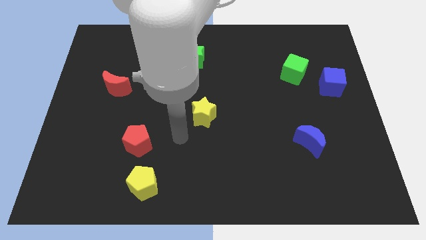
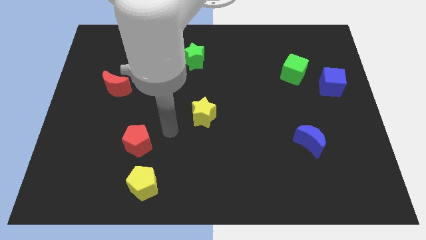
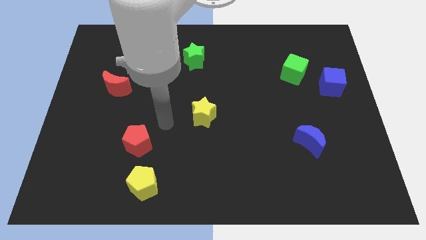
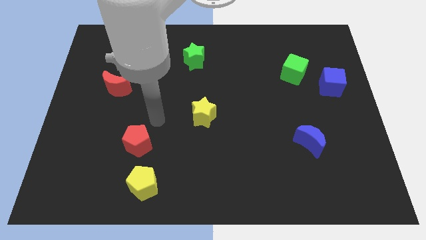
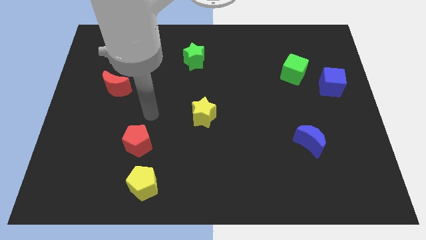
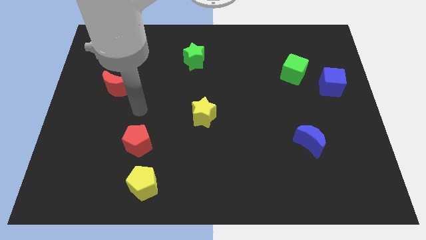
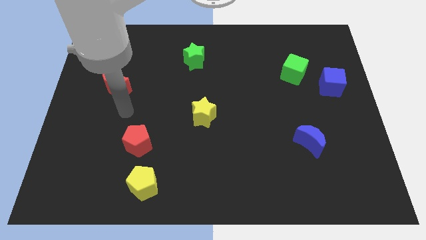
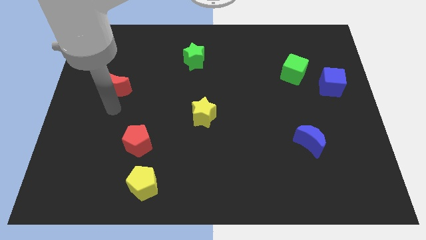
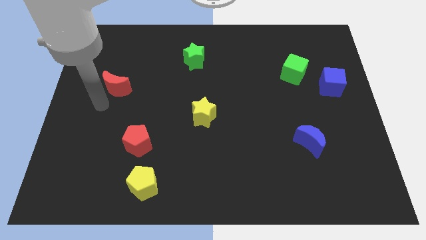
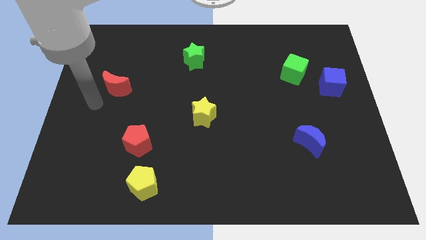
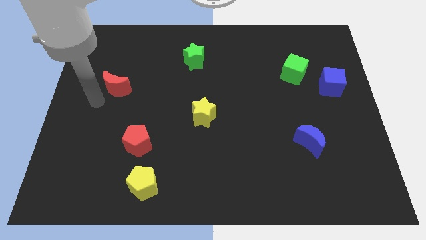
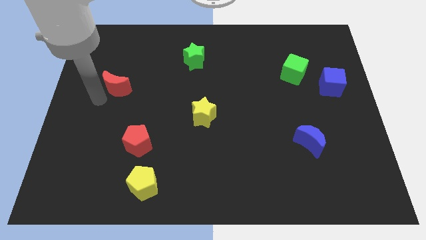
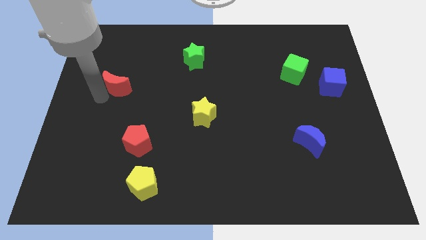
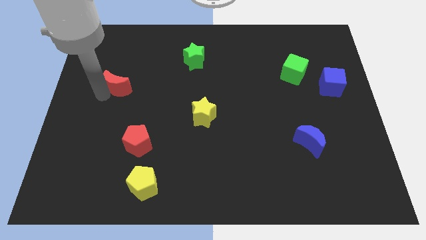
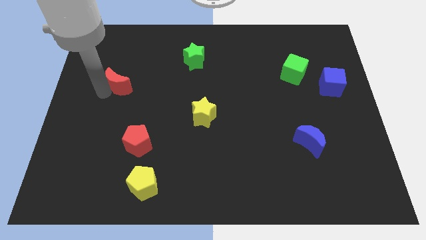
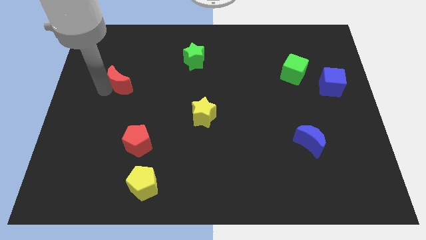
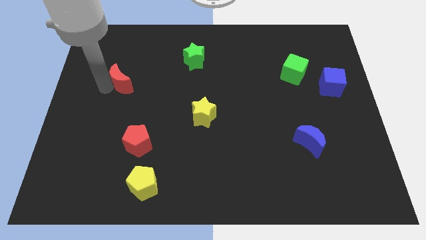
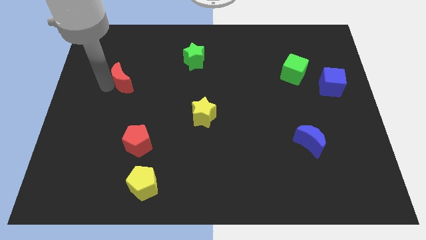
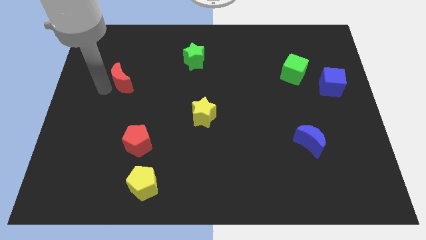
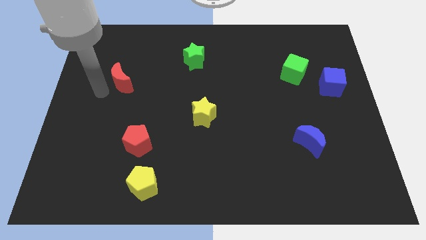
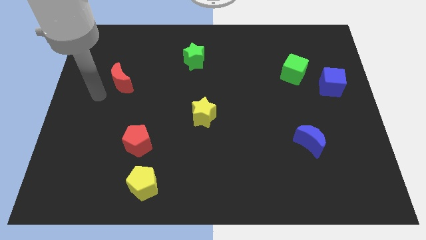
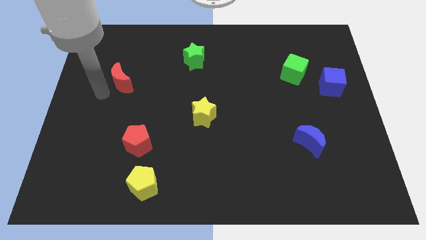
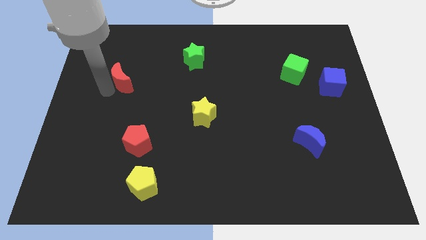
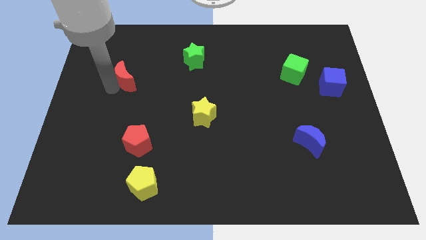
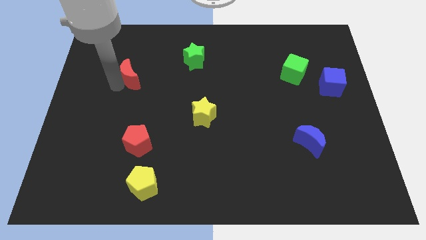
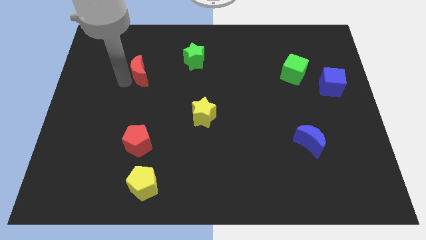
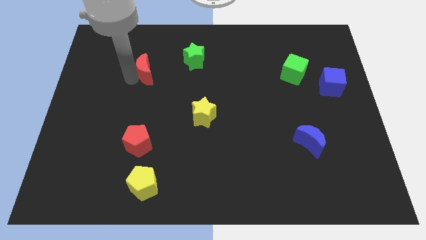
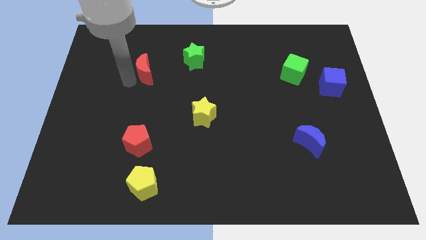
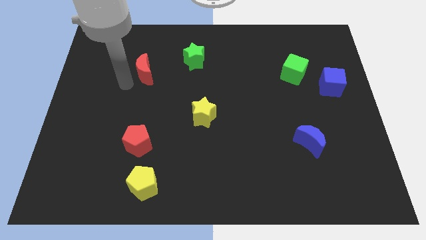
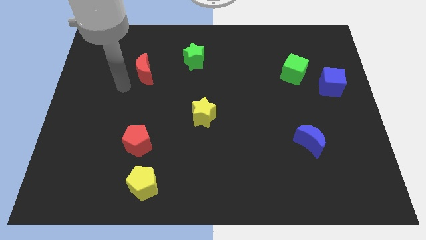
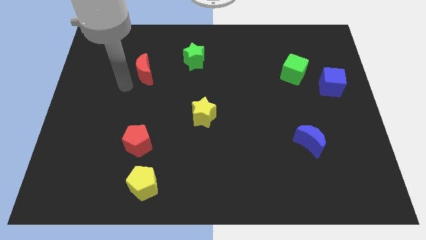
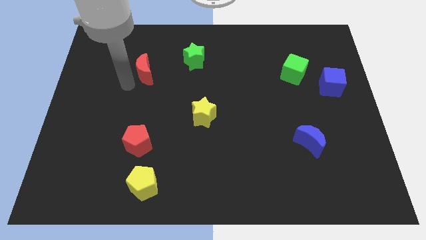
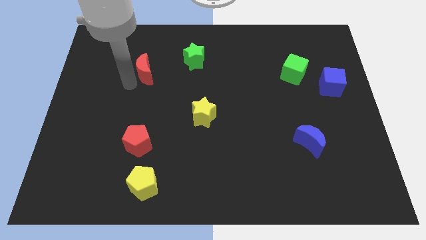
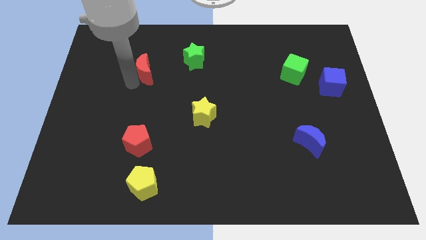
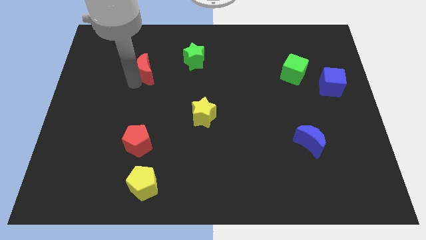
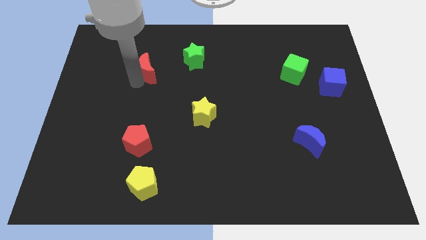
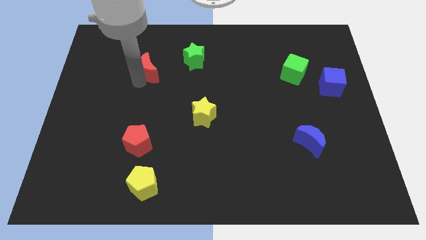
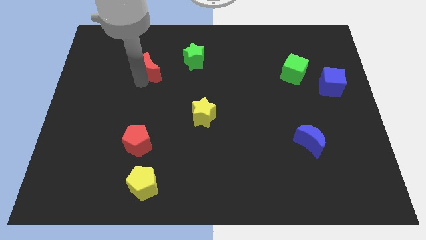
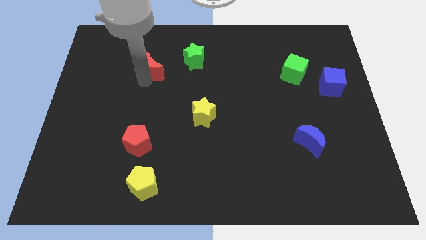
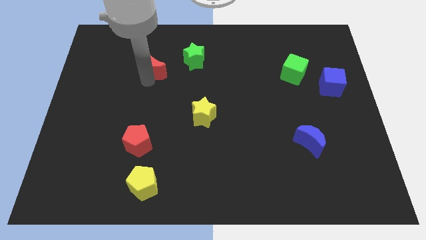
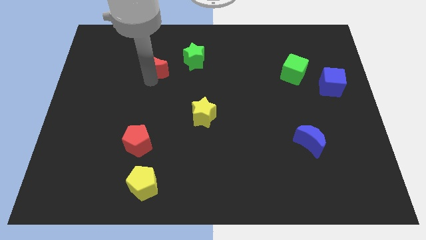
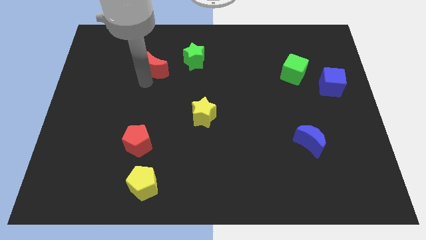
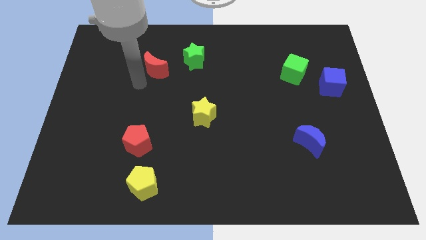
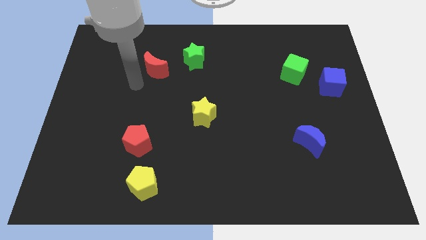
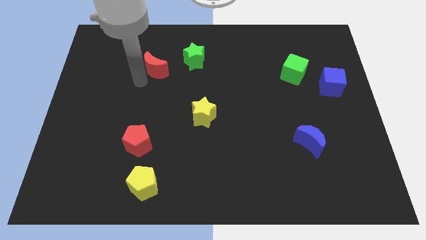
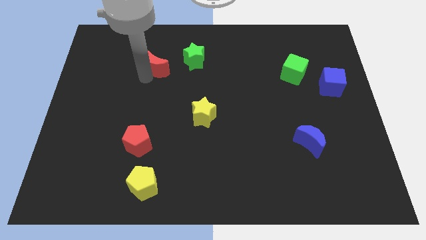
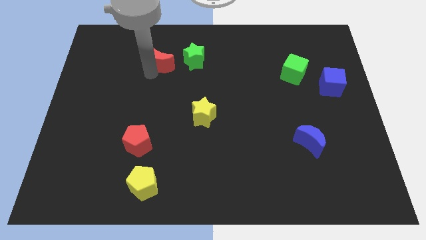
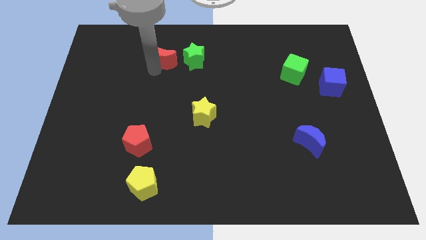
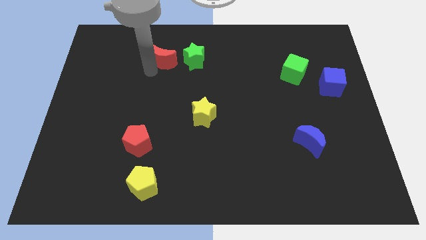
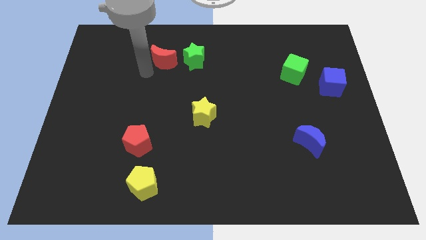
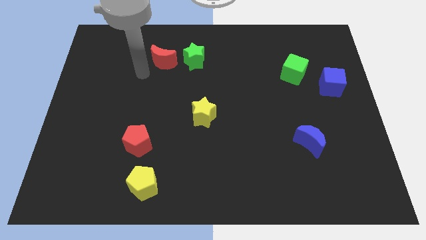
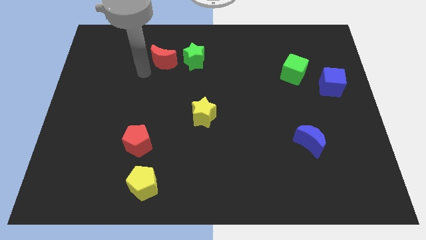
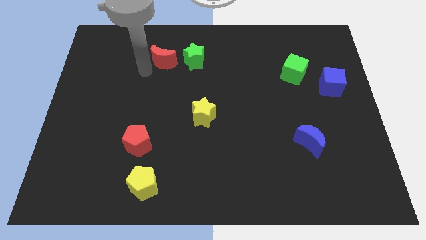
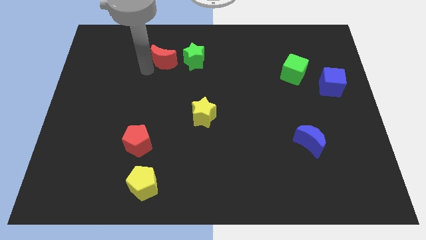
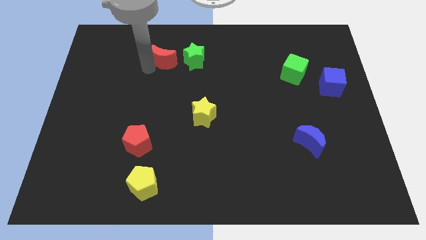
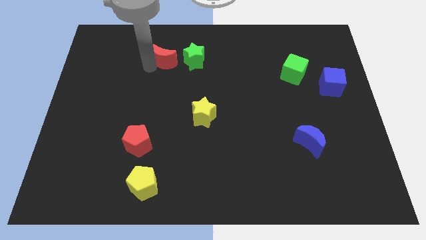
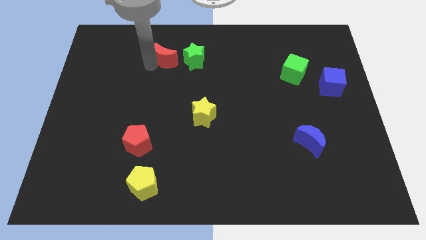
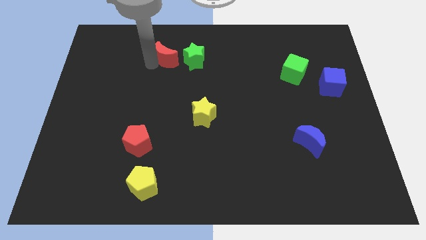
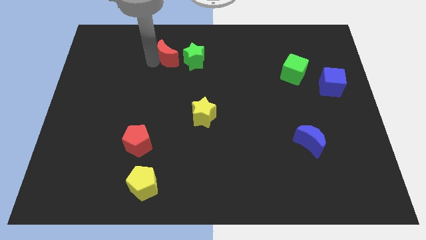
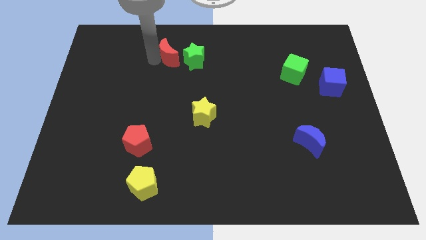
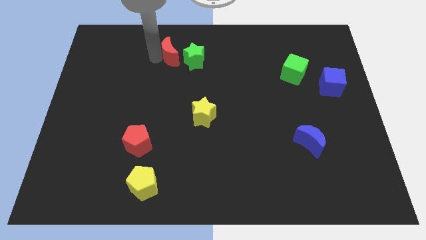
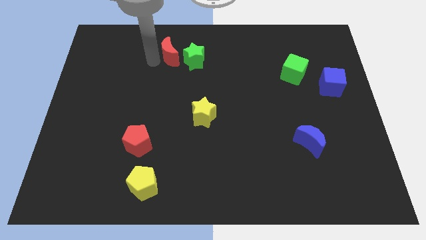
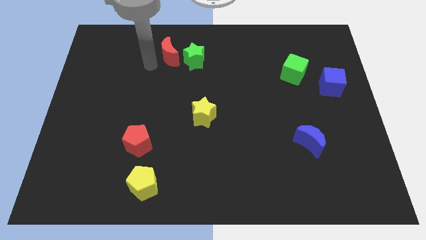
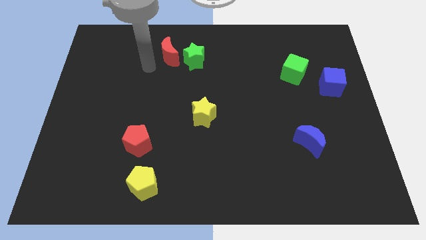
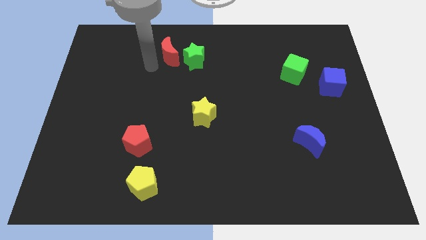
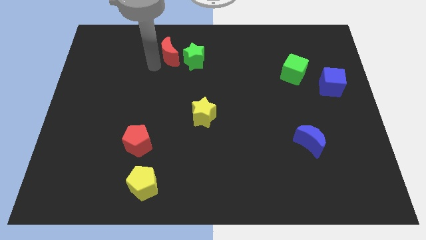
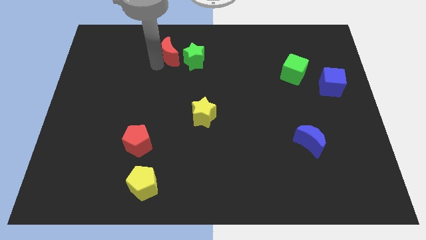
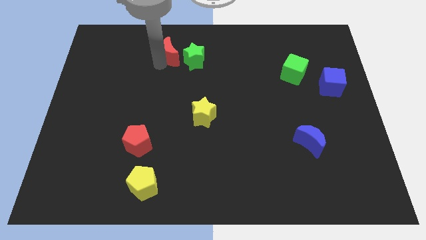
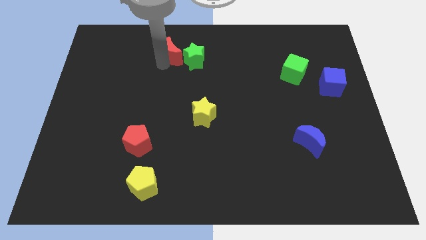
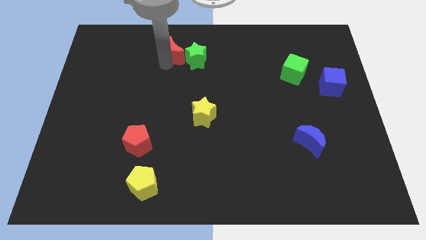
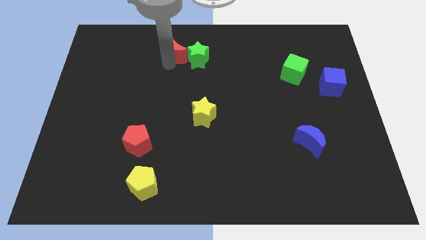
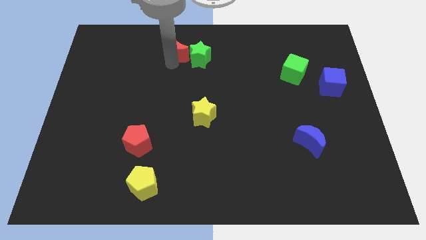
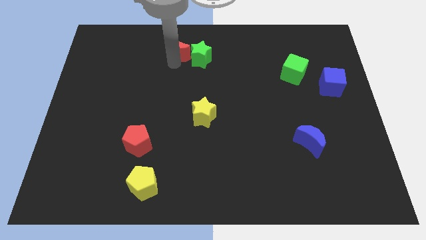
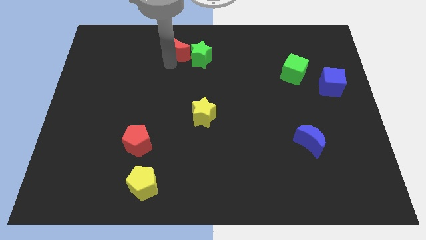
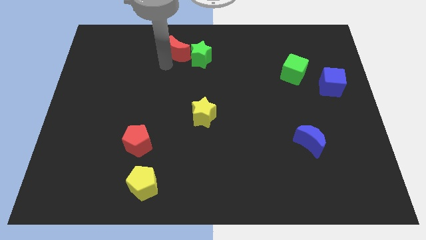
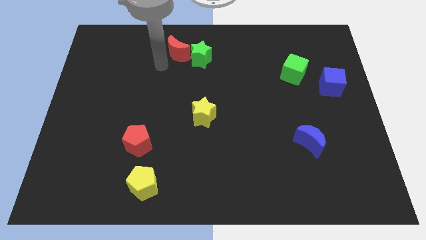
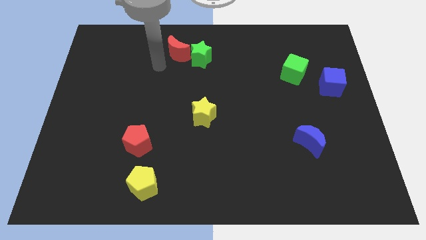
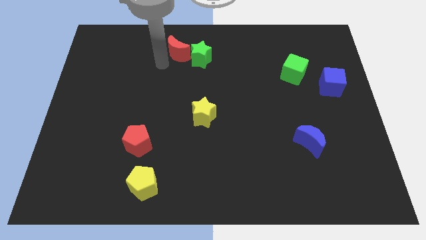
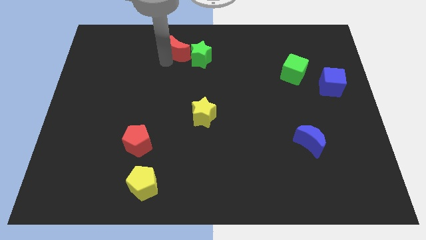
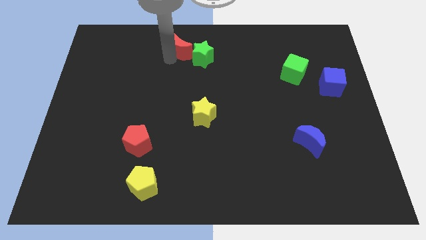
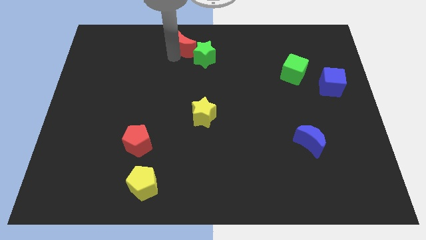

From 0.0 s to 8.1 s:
put the red moon to the top
